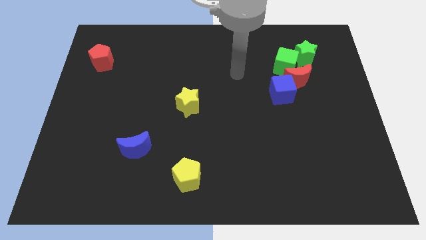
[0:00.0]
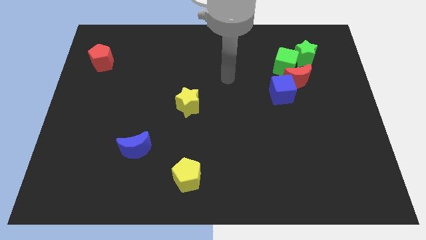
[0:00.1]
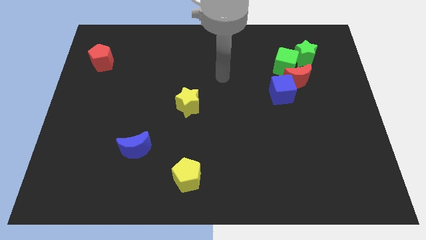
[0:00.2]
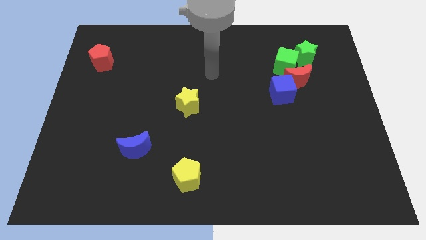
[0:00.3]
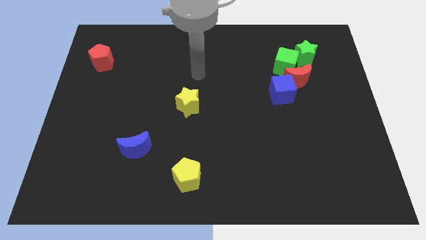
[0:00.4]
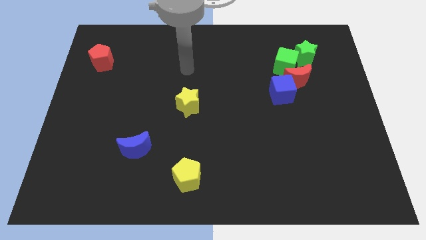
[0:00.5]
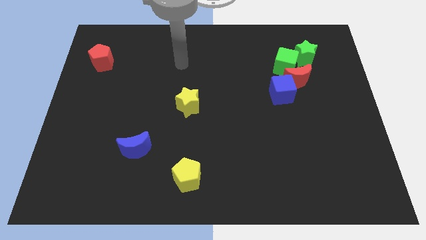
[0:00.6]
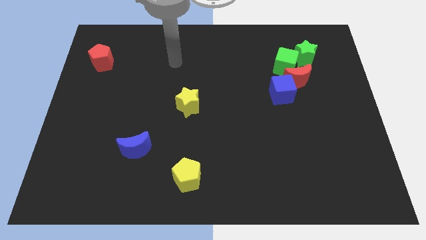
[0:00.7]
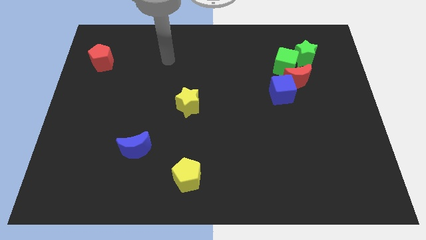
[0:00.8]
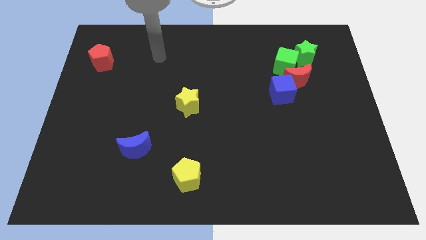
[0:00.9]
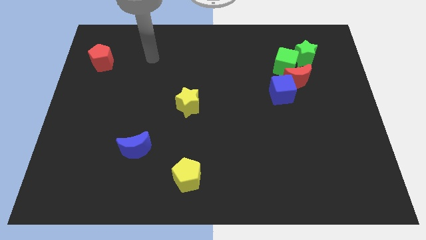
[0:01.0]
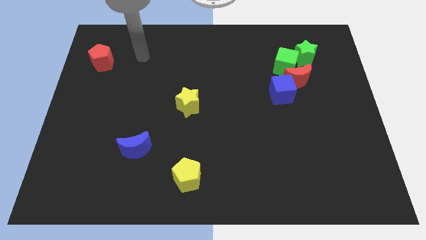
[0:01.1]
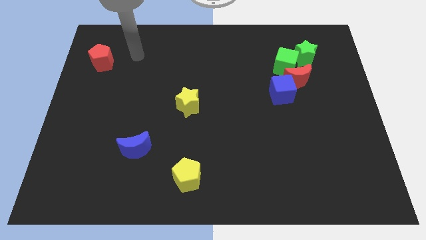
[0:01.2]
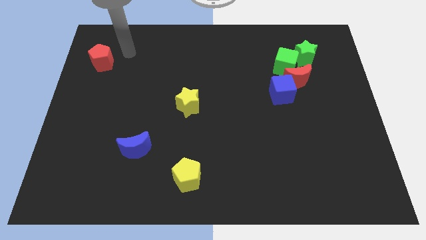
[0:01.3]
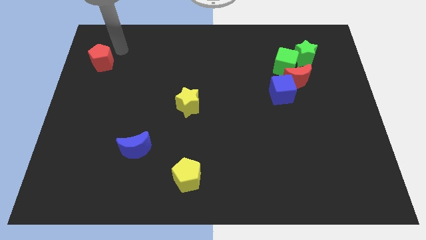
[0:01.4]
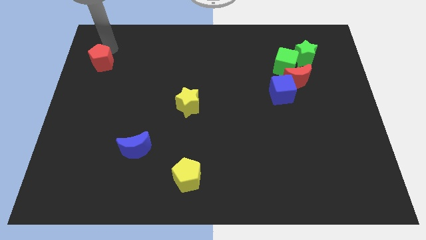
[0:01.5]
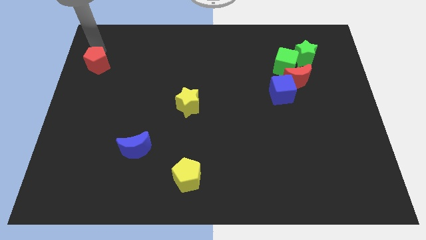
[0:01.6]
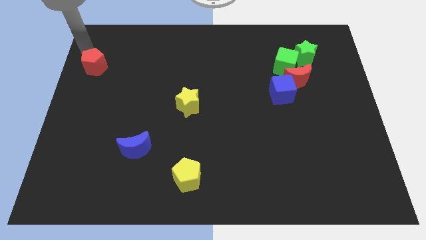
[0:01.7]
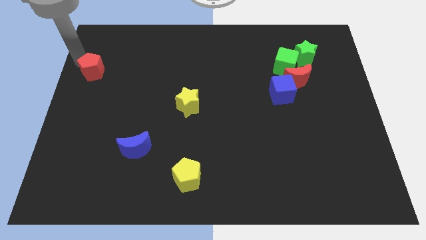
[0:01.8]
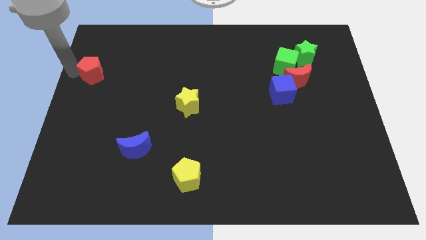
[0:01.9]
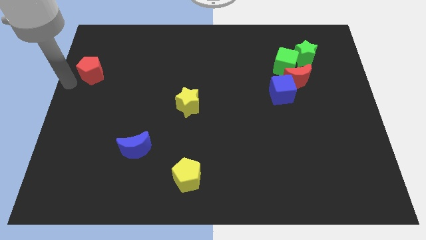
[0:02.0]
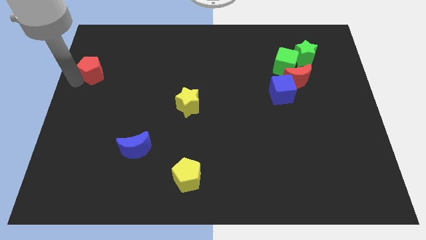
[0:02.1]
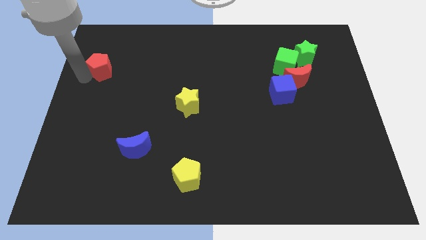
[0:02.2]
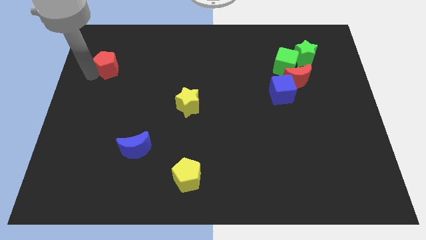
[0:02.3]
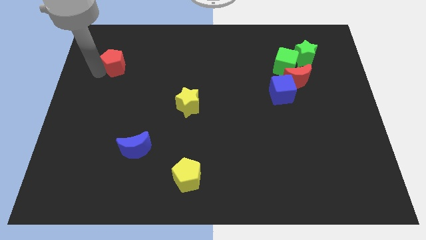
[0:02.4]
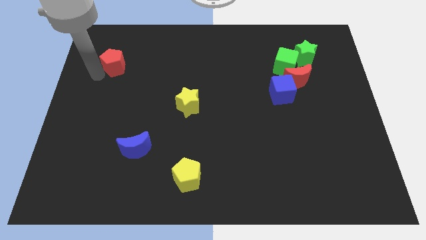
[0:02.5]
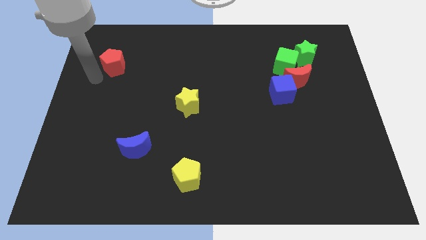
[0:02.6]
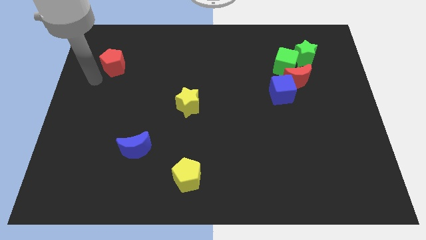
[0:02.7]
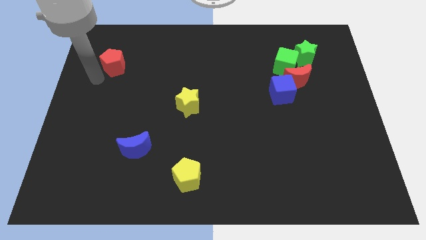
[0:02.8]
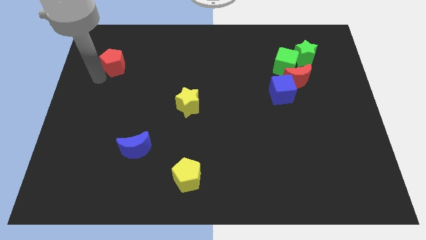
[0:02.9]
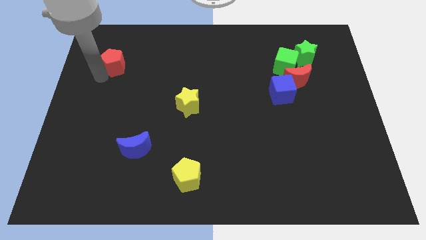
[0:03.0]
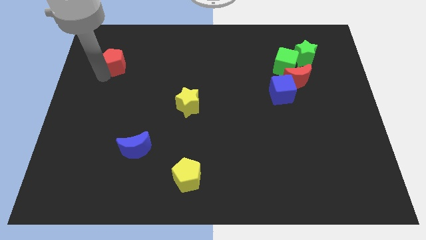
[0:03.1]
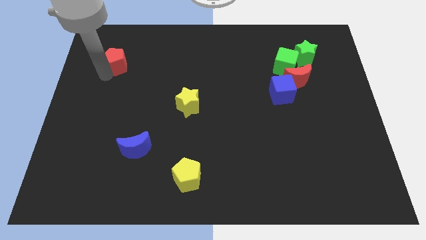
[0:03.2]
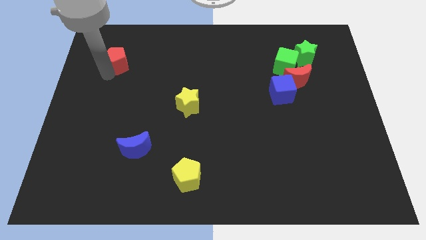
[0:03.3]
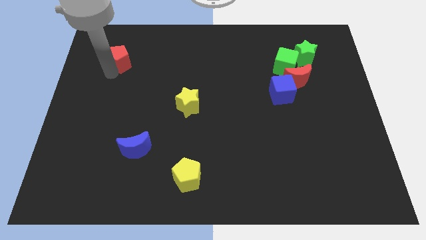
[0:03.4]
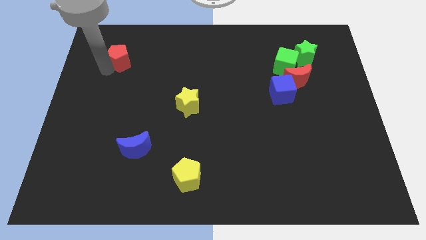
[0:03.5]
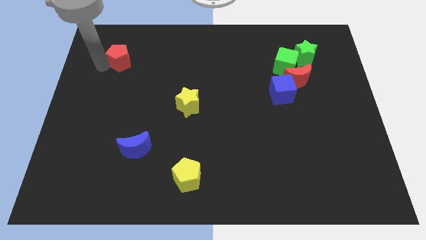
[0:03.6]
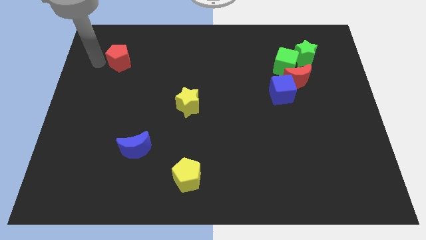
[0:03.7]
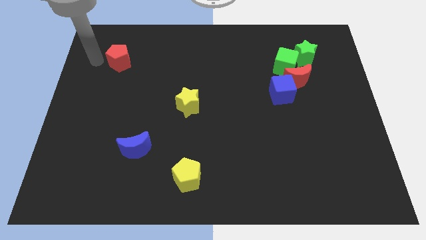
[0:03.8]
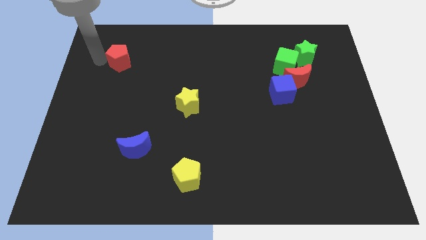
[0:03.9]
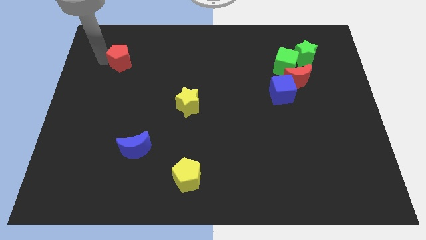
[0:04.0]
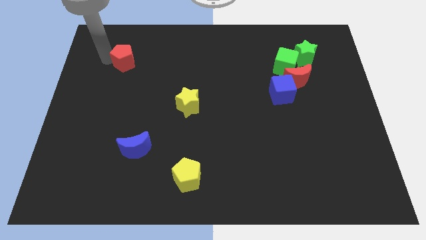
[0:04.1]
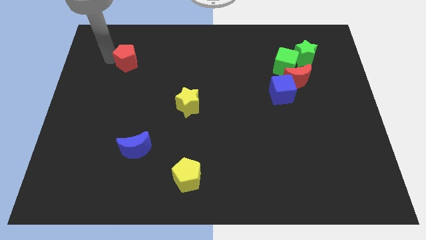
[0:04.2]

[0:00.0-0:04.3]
push the red pentagon right slightly

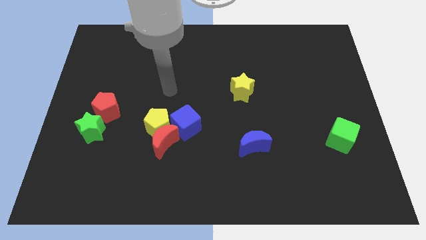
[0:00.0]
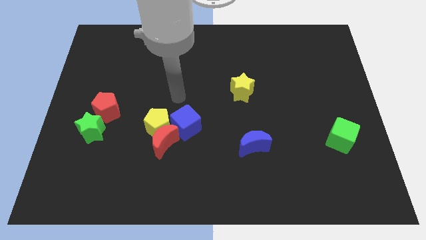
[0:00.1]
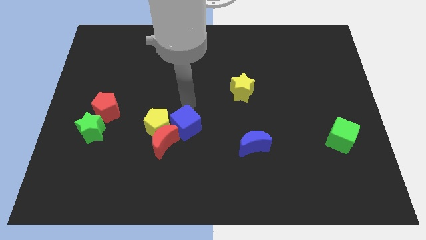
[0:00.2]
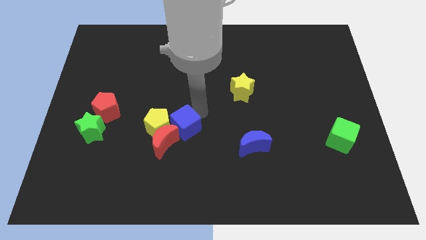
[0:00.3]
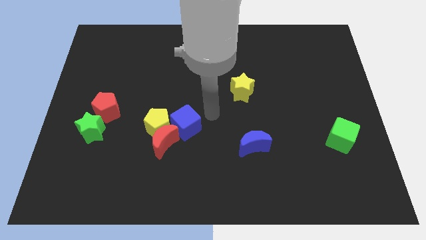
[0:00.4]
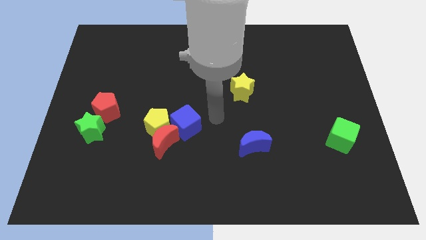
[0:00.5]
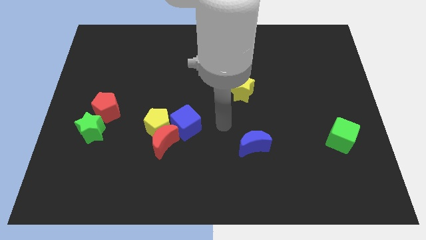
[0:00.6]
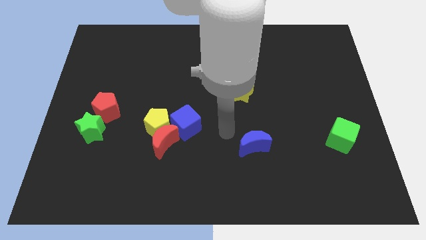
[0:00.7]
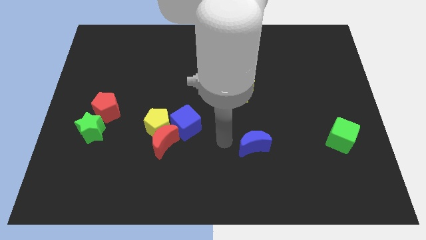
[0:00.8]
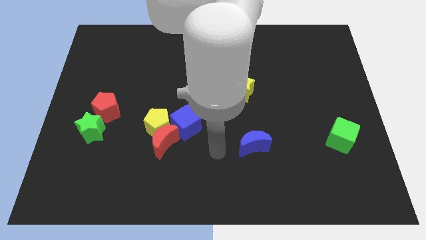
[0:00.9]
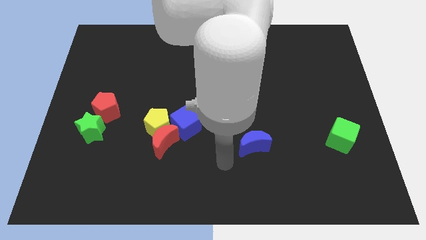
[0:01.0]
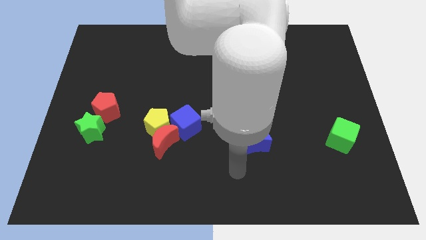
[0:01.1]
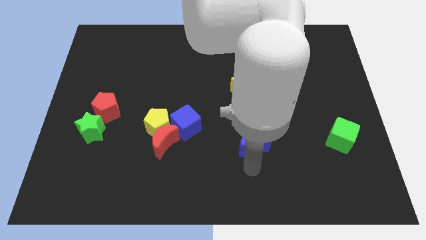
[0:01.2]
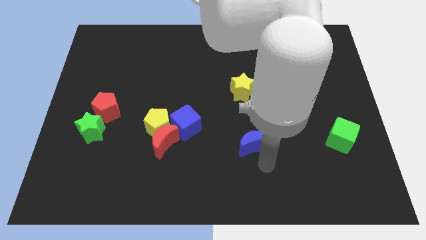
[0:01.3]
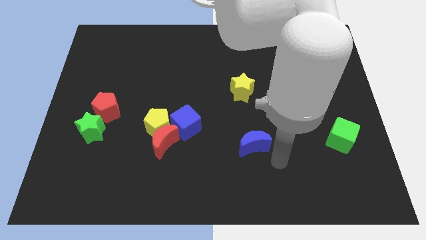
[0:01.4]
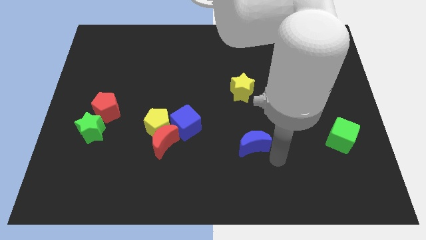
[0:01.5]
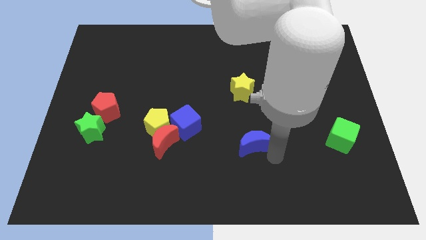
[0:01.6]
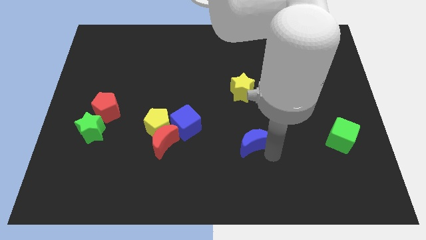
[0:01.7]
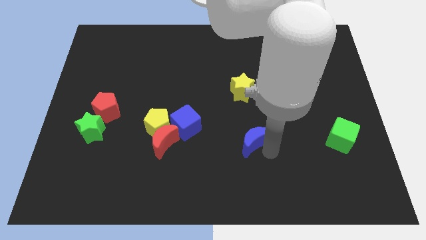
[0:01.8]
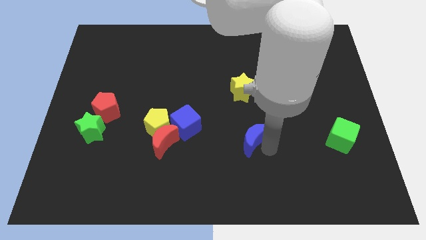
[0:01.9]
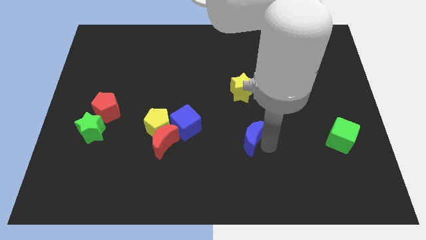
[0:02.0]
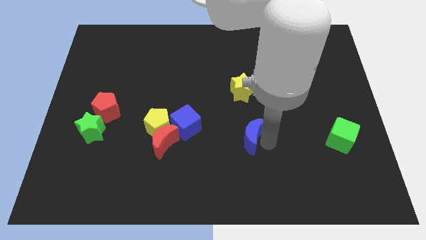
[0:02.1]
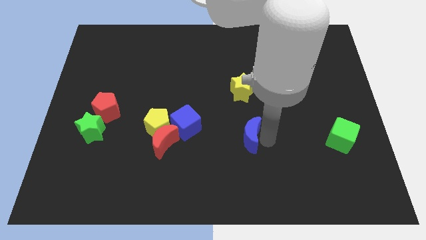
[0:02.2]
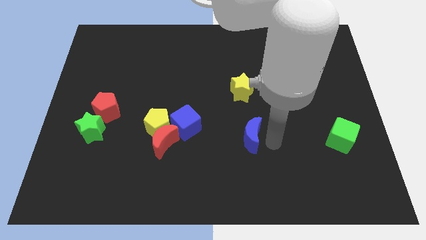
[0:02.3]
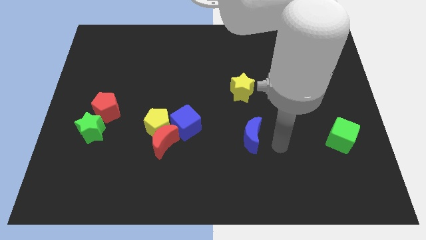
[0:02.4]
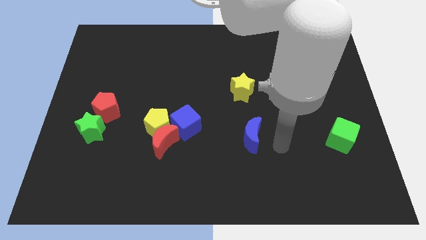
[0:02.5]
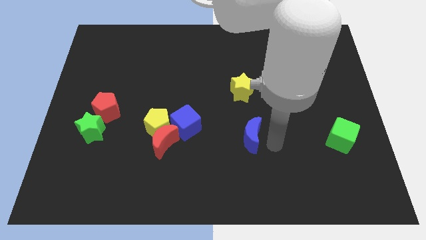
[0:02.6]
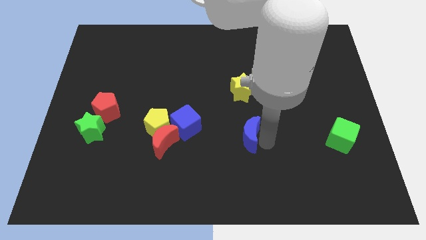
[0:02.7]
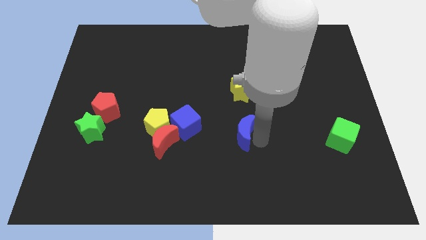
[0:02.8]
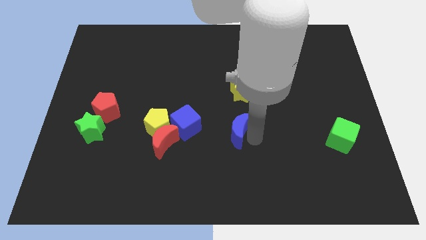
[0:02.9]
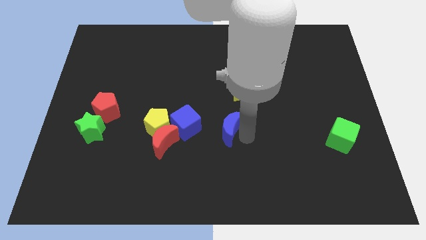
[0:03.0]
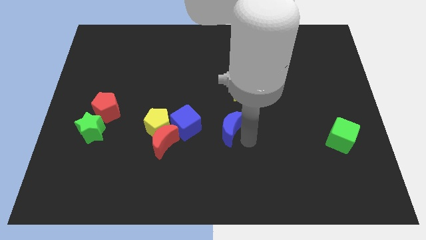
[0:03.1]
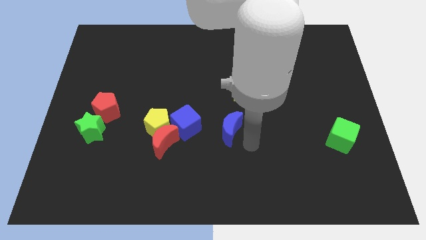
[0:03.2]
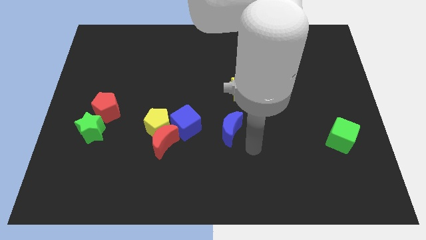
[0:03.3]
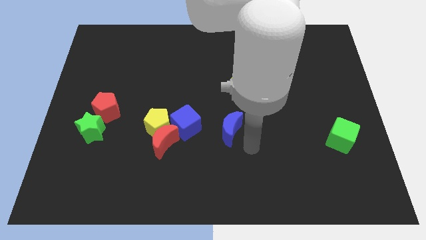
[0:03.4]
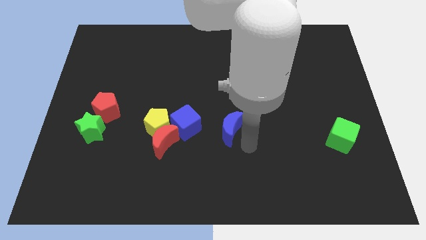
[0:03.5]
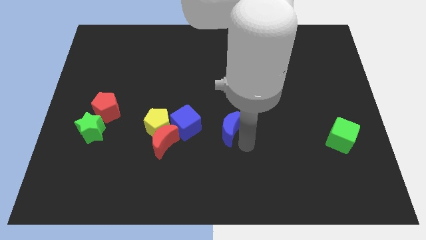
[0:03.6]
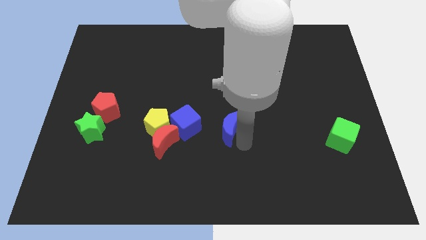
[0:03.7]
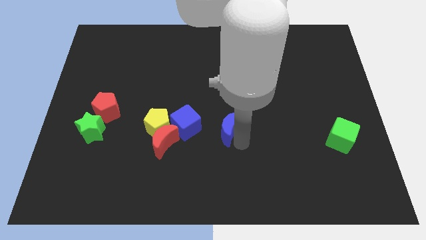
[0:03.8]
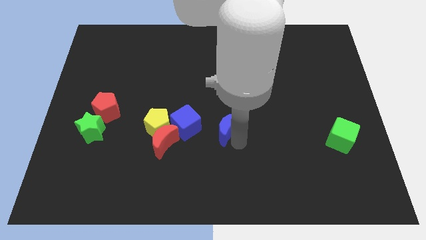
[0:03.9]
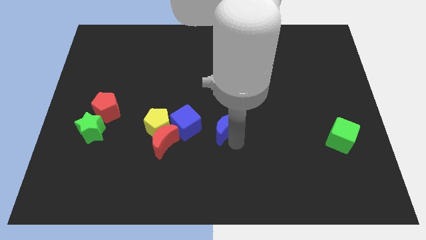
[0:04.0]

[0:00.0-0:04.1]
push the blue moon upwards and left diagonally a little bit
